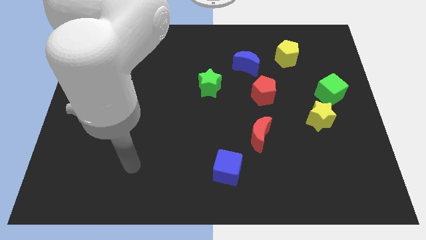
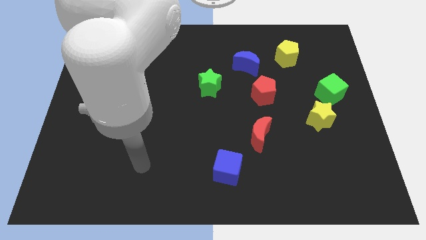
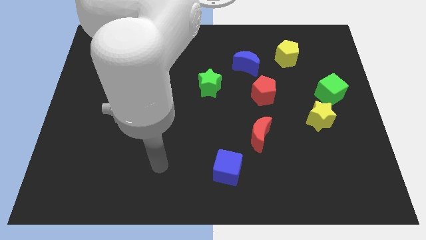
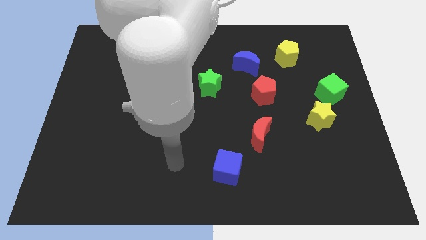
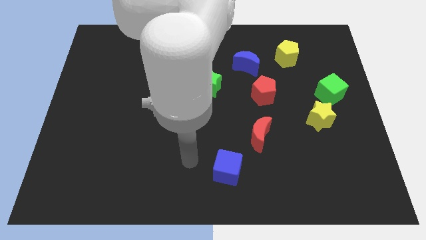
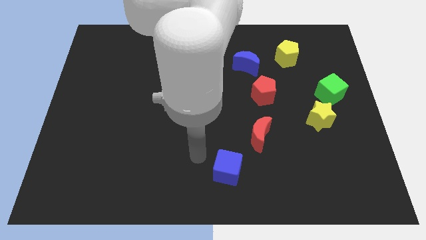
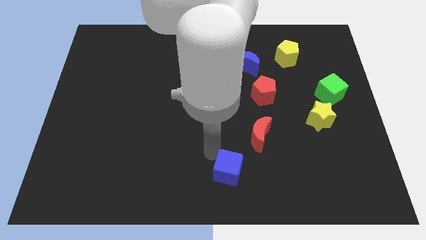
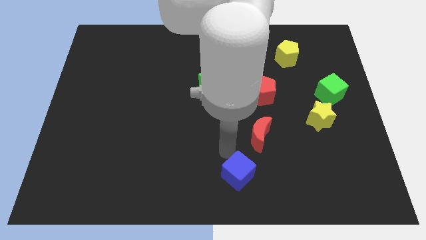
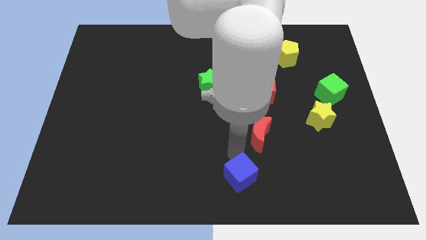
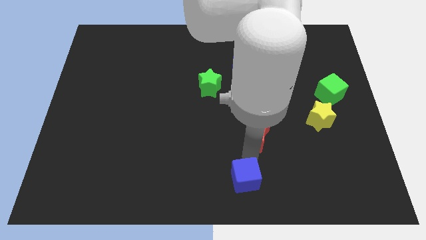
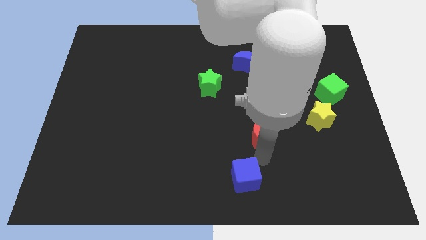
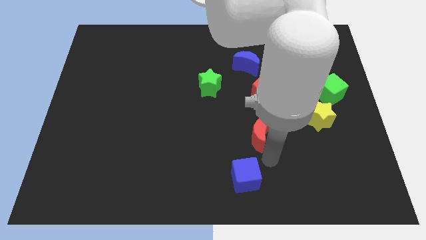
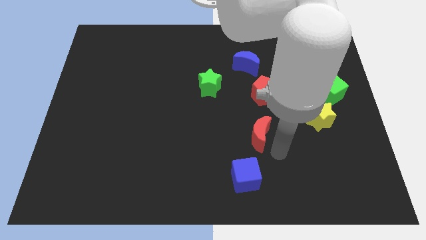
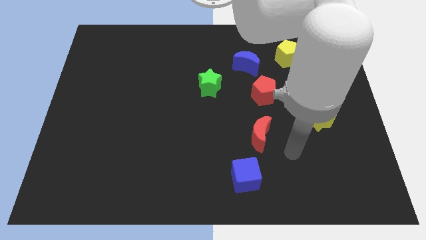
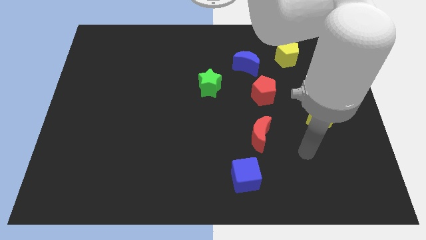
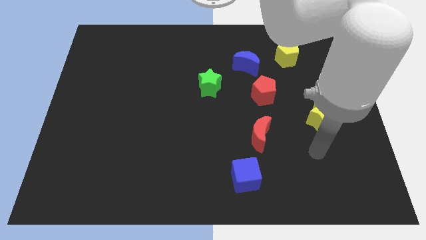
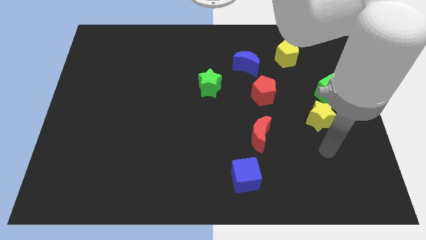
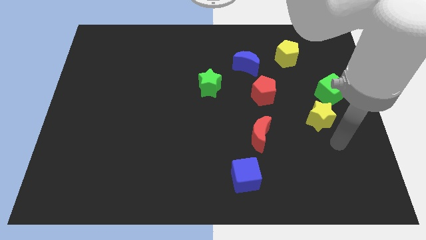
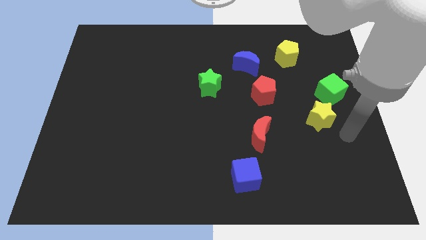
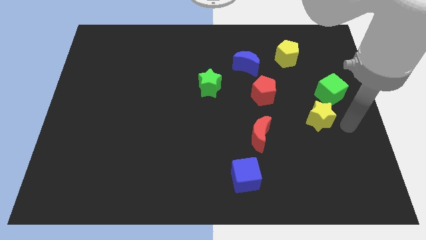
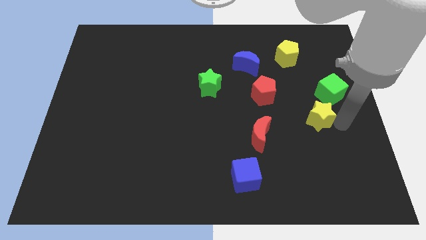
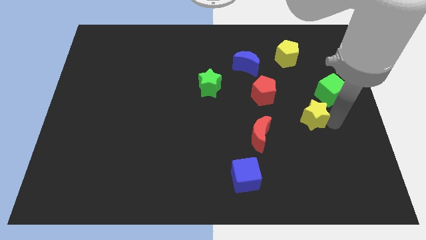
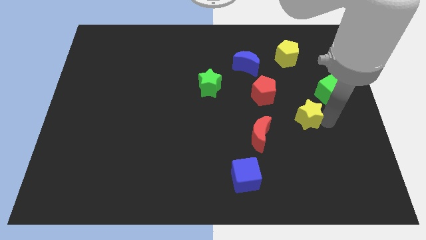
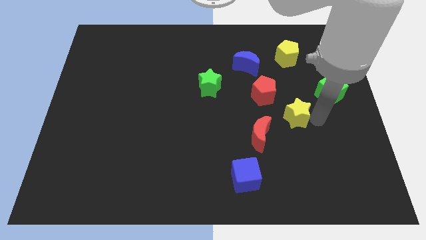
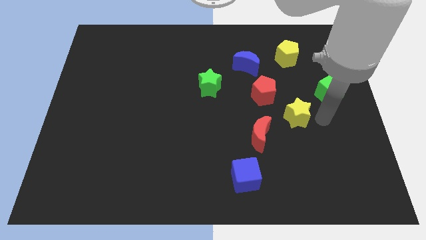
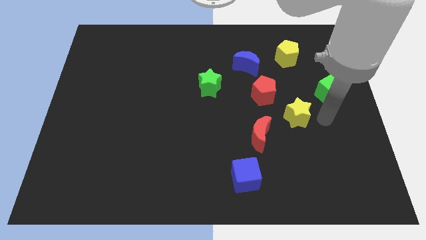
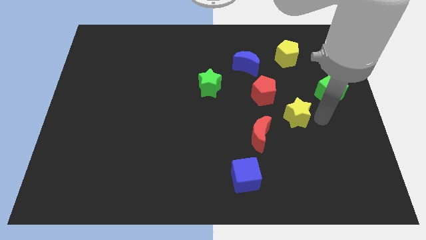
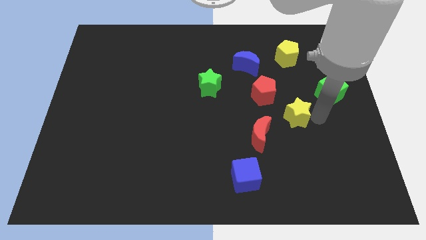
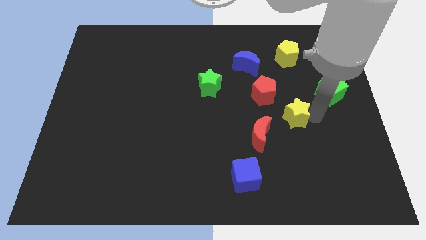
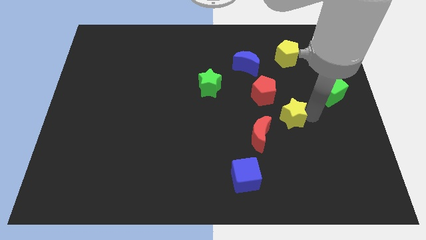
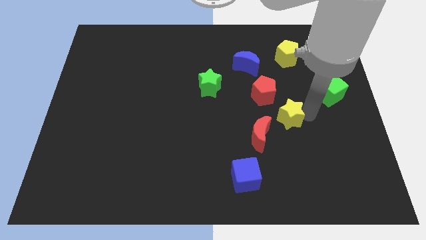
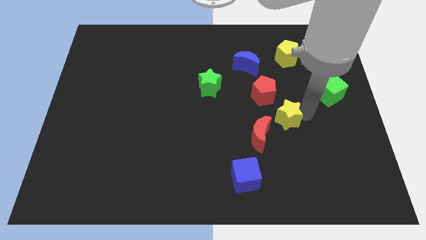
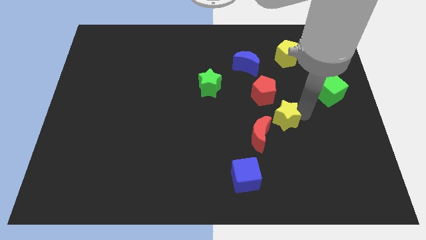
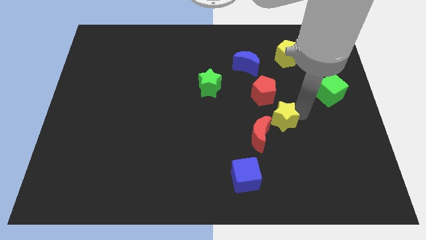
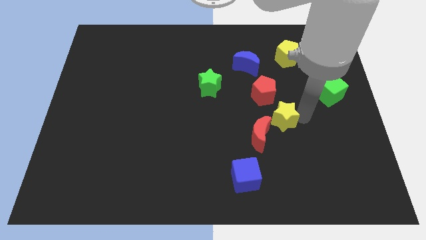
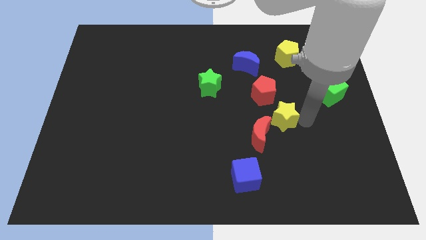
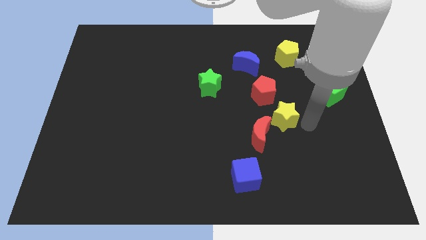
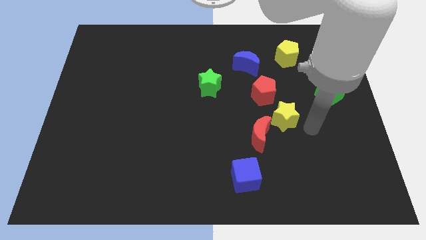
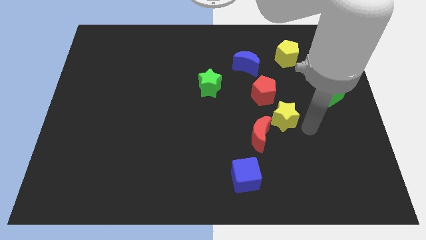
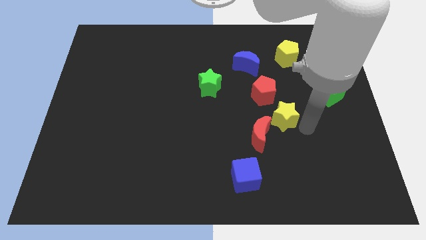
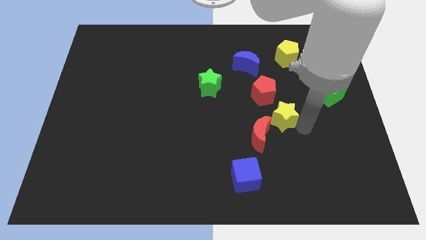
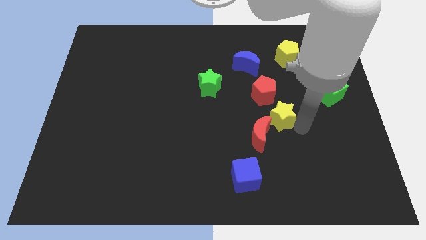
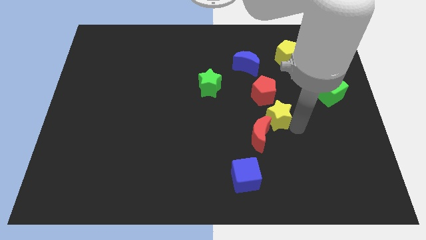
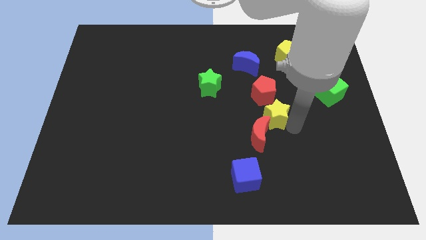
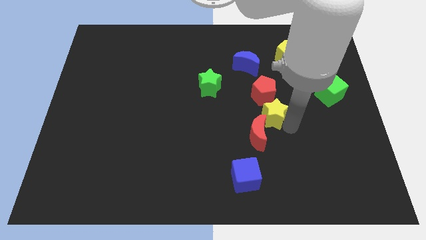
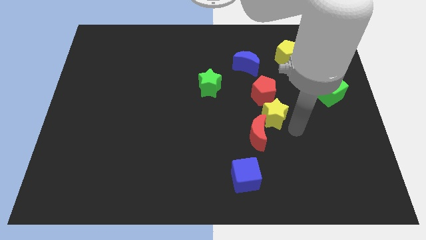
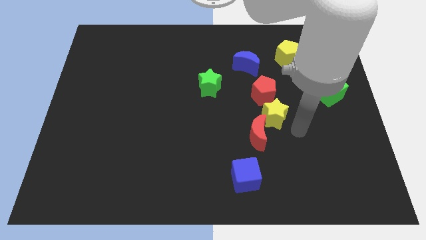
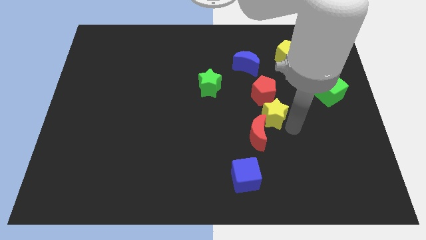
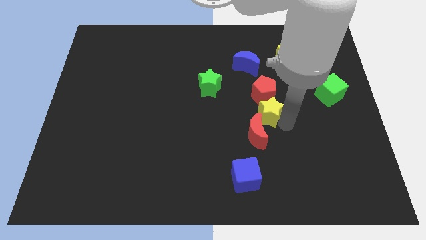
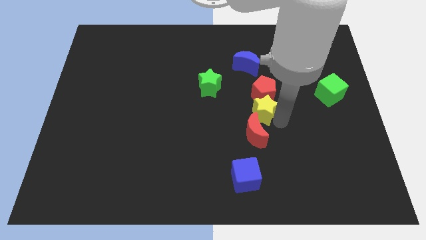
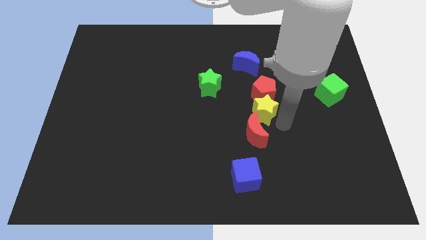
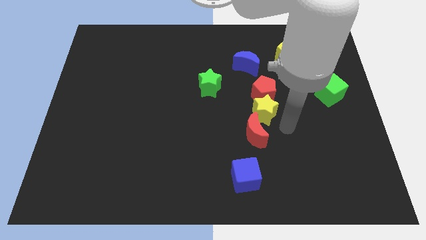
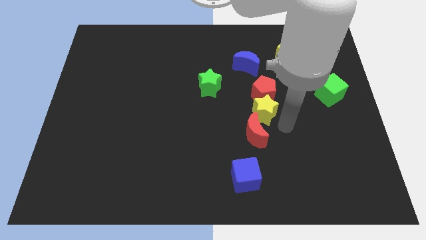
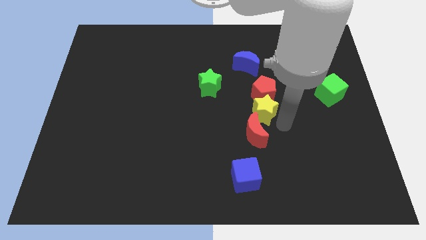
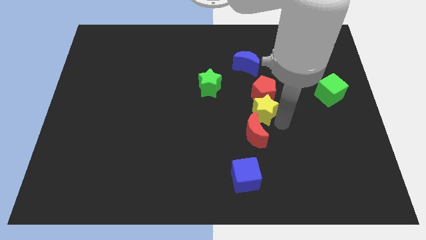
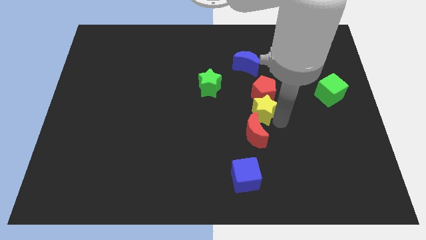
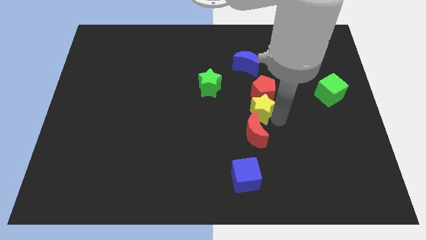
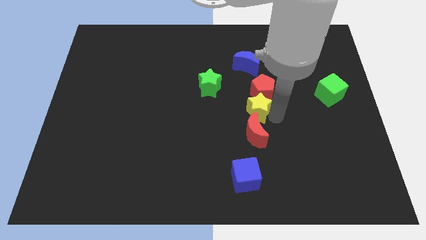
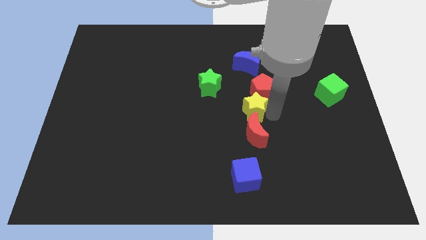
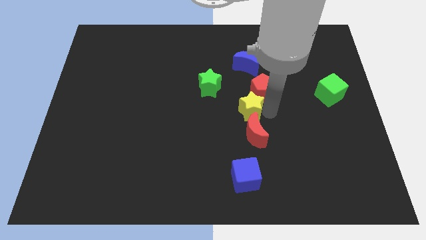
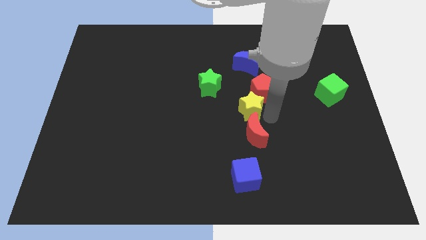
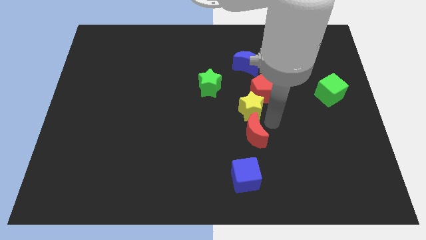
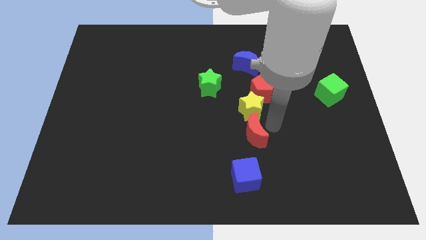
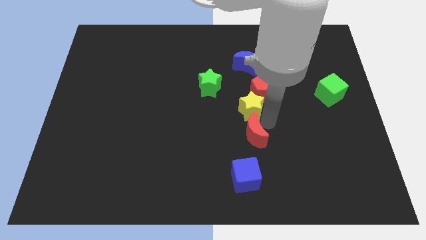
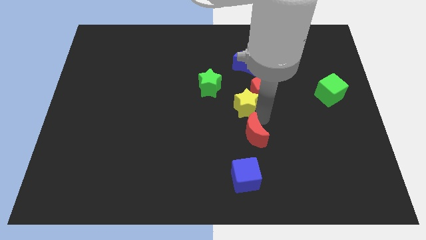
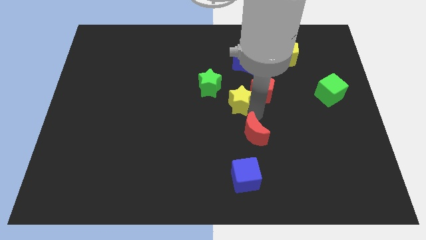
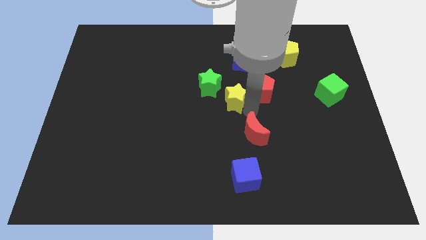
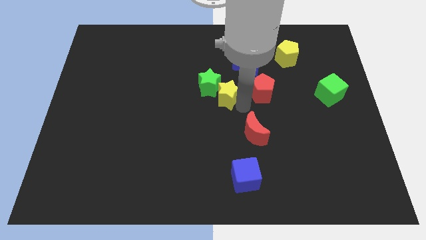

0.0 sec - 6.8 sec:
push the yellow star to the green star
